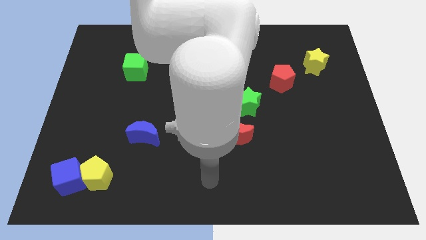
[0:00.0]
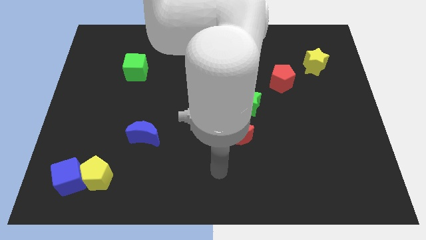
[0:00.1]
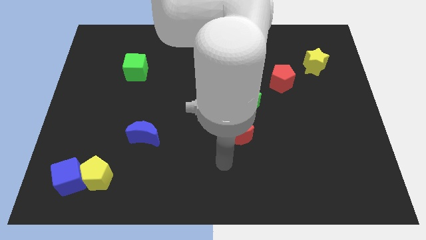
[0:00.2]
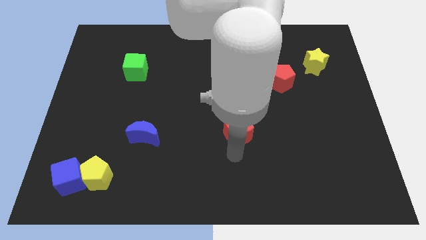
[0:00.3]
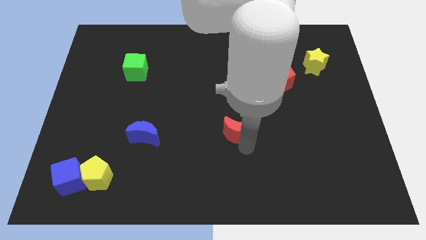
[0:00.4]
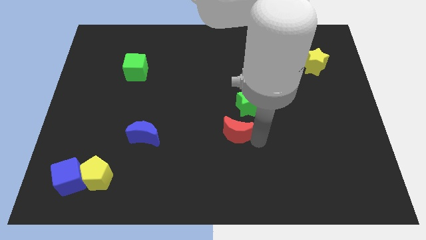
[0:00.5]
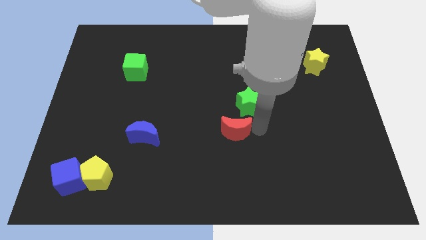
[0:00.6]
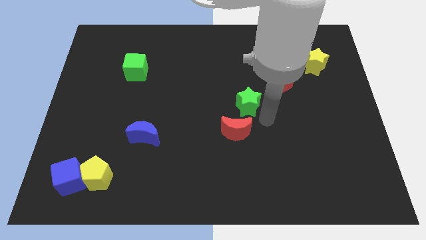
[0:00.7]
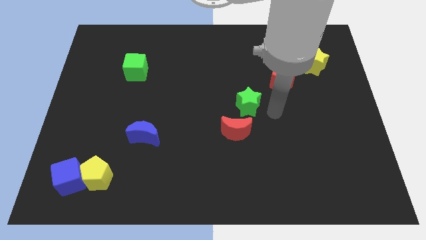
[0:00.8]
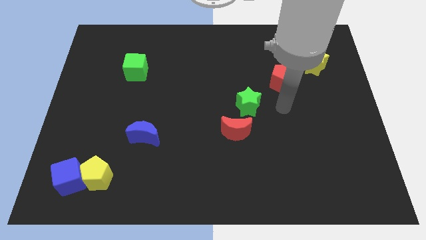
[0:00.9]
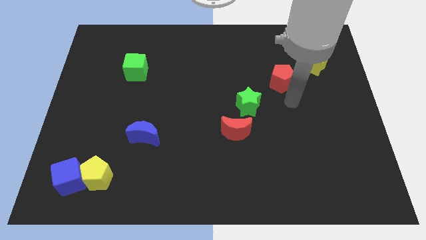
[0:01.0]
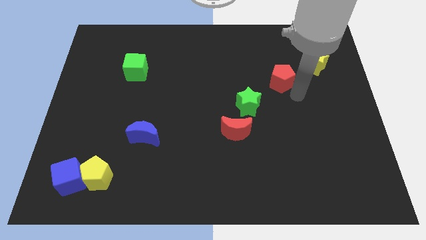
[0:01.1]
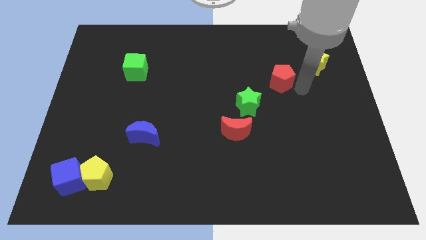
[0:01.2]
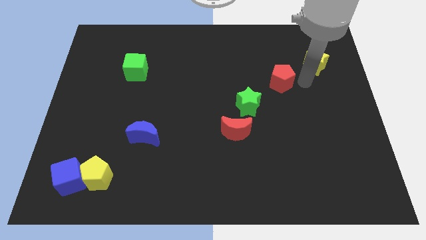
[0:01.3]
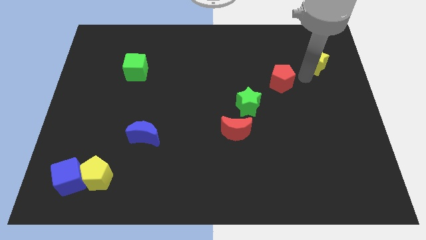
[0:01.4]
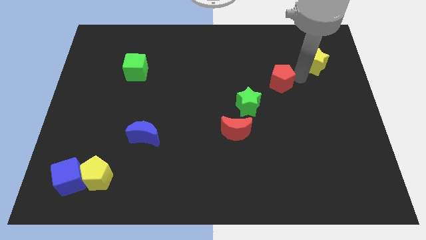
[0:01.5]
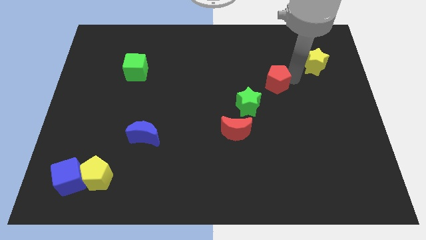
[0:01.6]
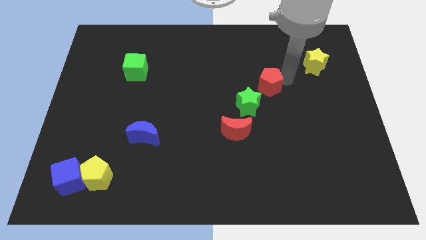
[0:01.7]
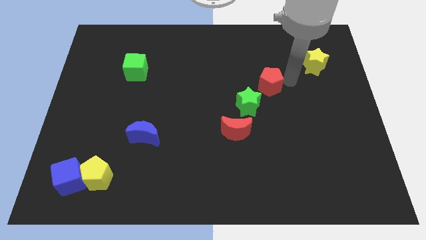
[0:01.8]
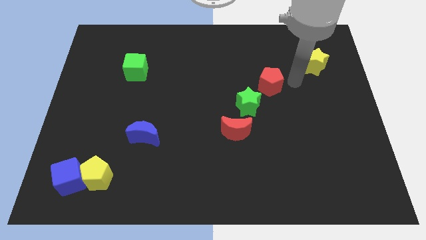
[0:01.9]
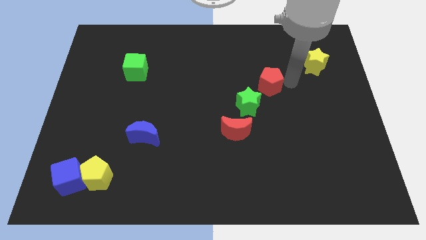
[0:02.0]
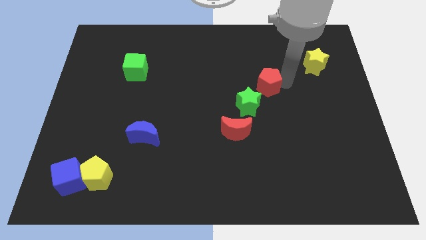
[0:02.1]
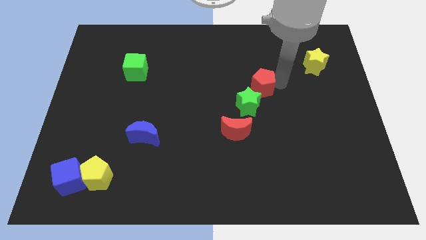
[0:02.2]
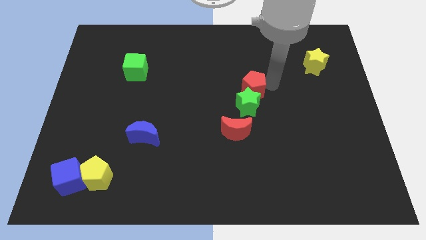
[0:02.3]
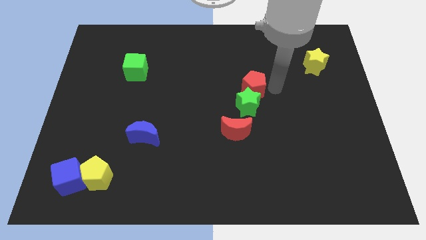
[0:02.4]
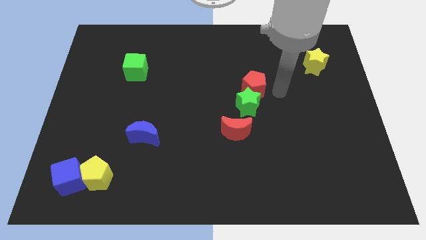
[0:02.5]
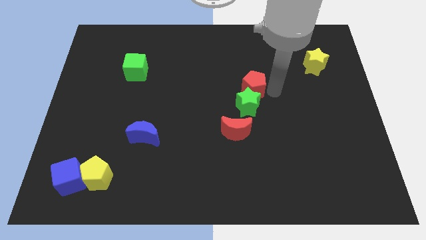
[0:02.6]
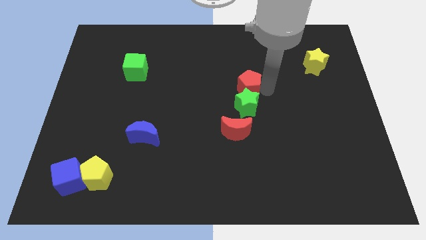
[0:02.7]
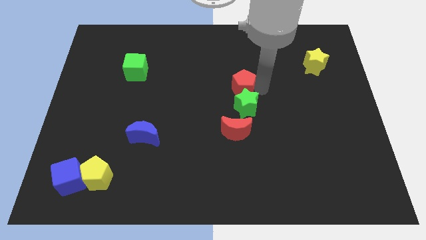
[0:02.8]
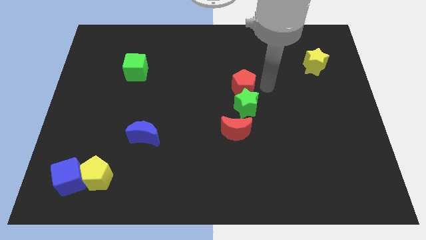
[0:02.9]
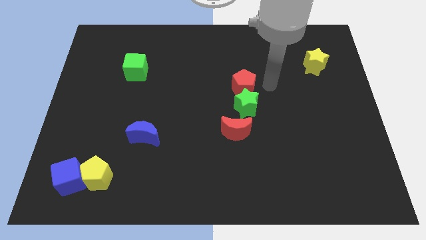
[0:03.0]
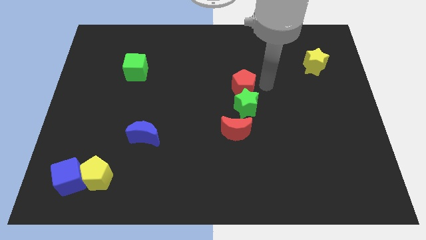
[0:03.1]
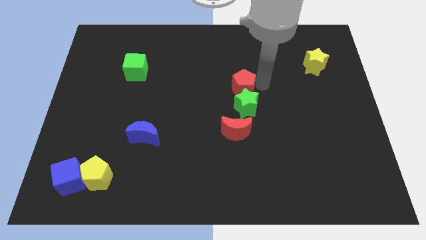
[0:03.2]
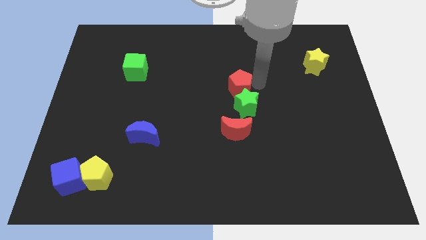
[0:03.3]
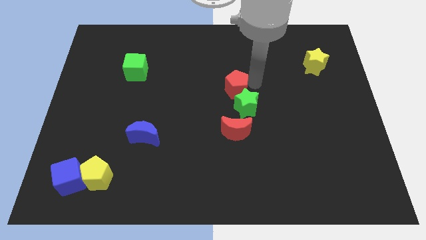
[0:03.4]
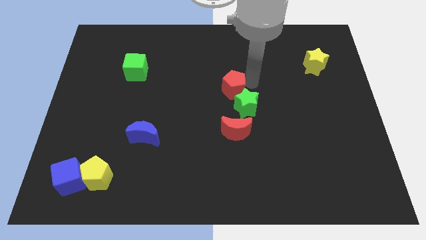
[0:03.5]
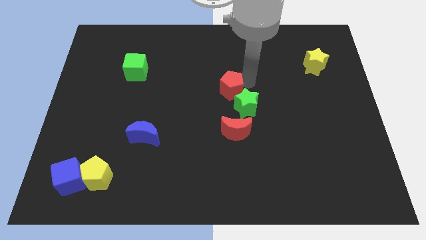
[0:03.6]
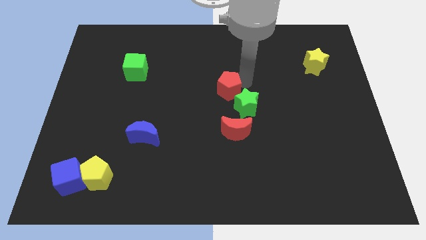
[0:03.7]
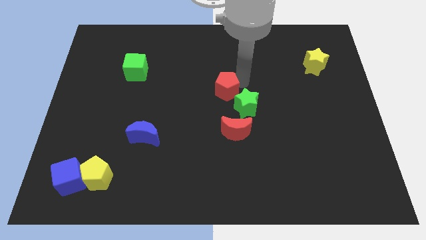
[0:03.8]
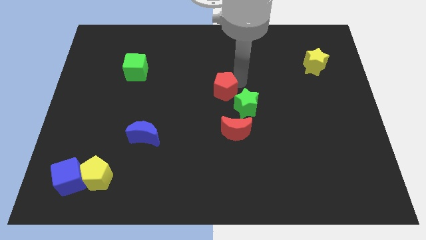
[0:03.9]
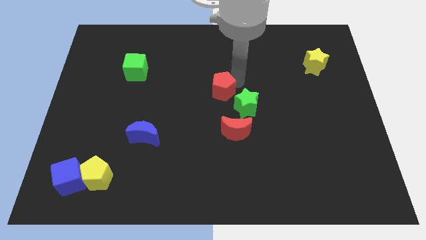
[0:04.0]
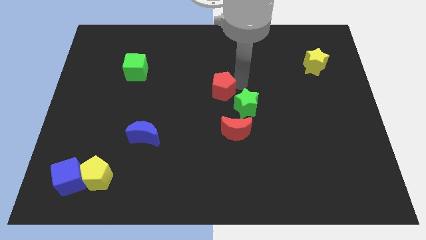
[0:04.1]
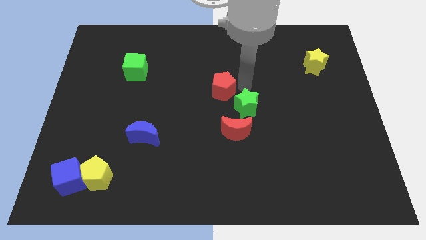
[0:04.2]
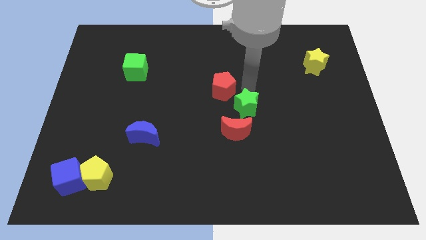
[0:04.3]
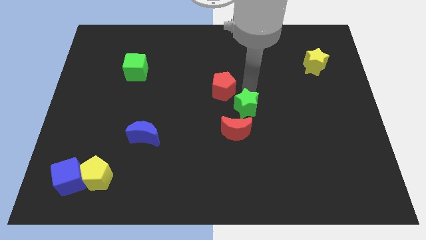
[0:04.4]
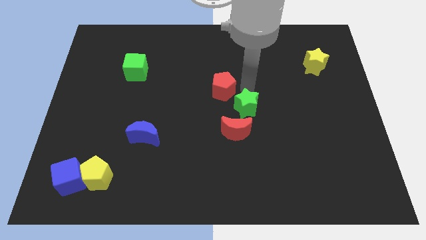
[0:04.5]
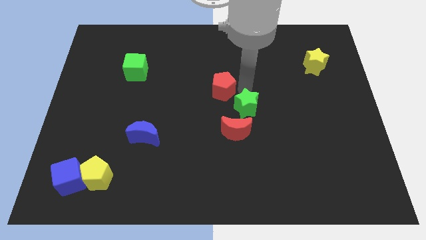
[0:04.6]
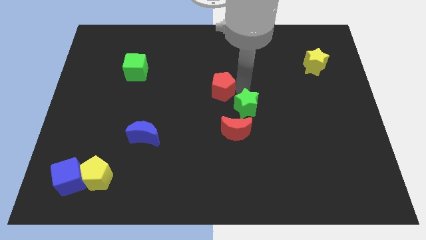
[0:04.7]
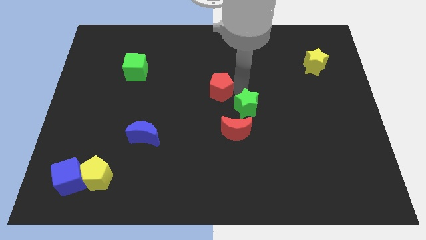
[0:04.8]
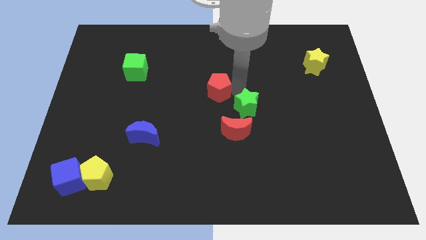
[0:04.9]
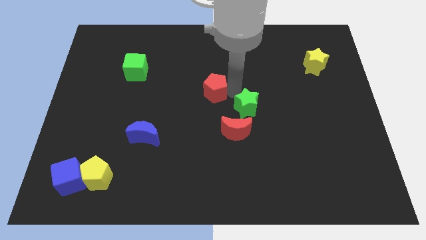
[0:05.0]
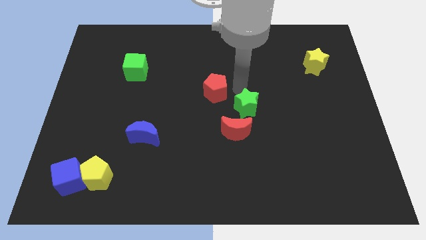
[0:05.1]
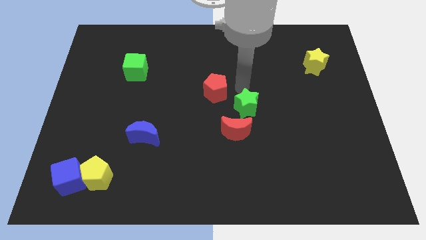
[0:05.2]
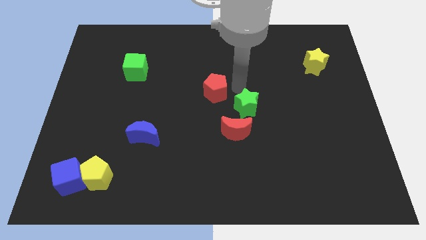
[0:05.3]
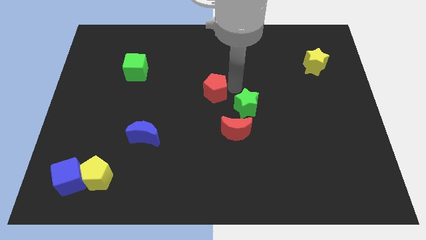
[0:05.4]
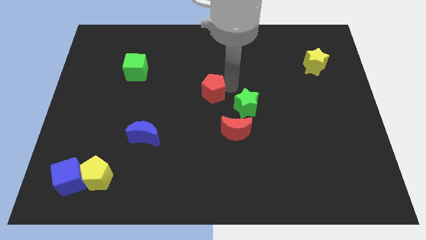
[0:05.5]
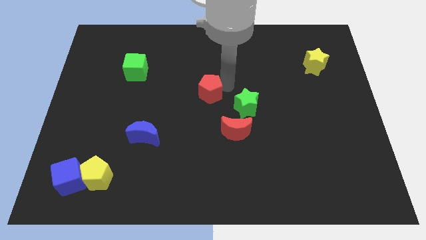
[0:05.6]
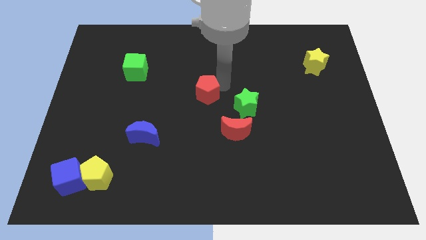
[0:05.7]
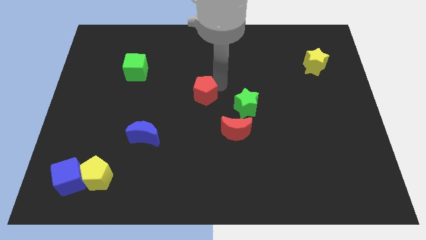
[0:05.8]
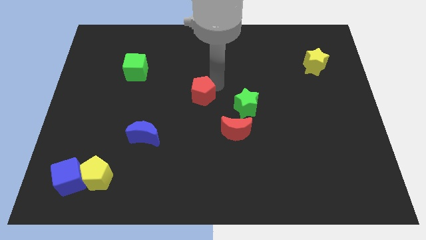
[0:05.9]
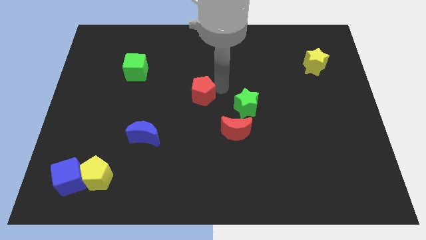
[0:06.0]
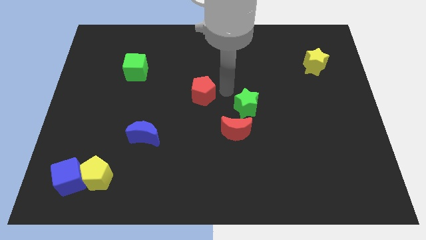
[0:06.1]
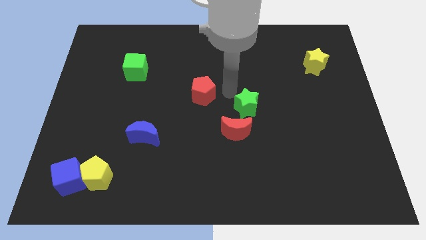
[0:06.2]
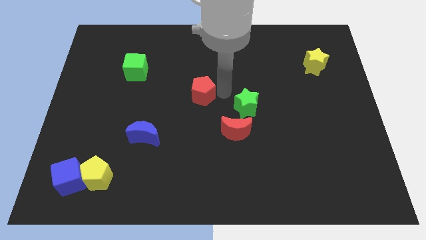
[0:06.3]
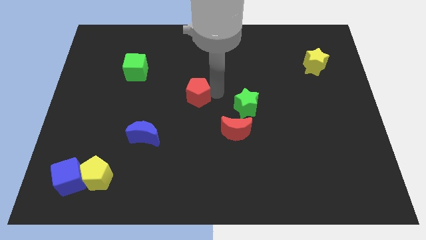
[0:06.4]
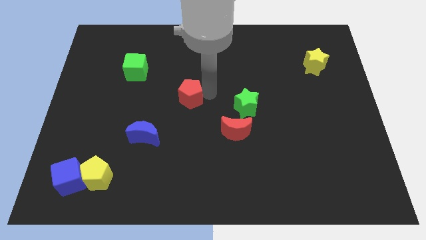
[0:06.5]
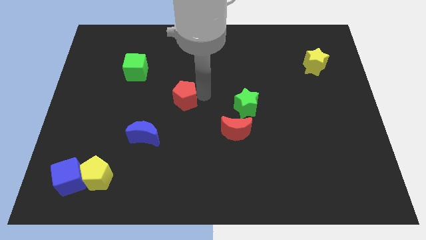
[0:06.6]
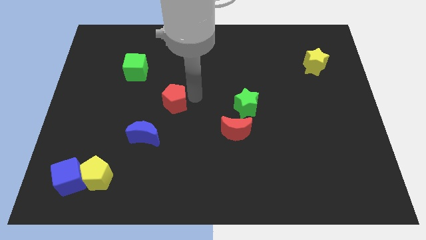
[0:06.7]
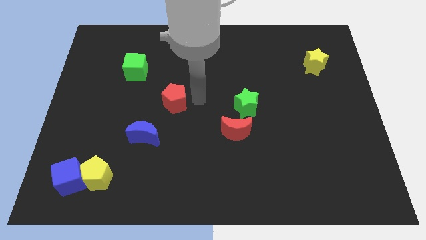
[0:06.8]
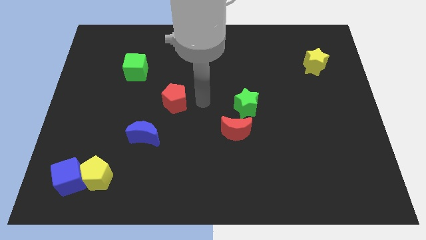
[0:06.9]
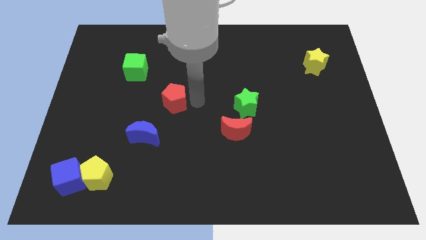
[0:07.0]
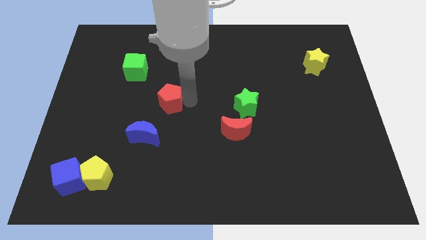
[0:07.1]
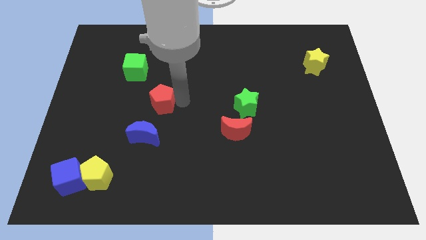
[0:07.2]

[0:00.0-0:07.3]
push the red pentagon above the blue moon
